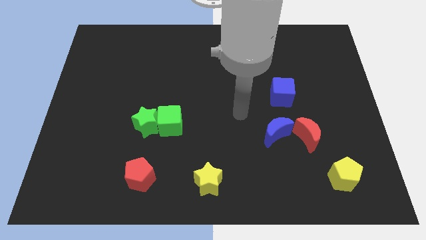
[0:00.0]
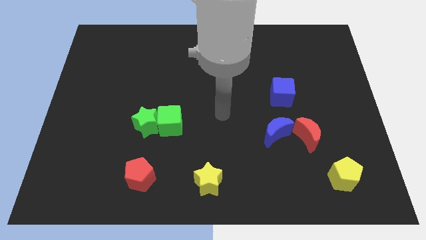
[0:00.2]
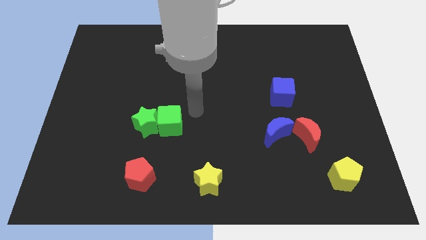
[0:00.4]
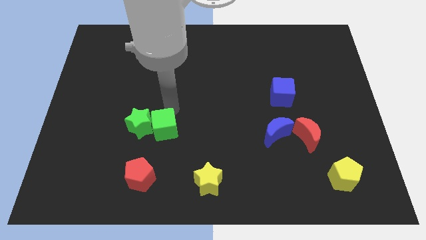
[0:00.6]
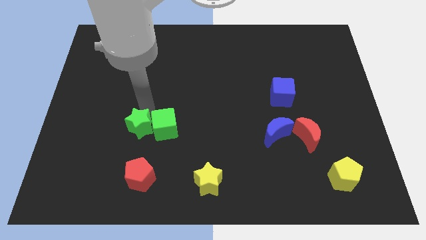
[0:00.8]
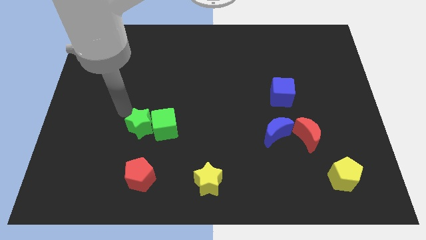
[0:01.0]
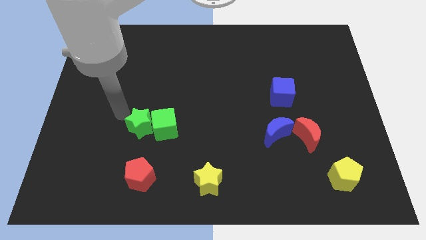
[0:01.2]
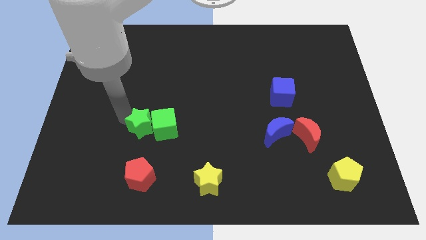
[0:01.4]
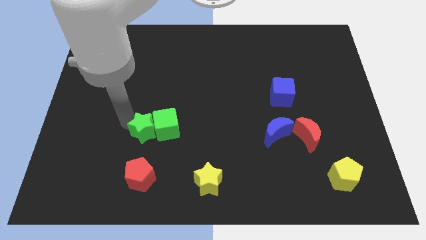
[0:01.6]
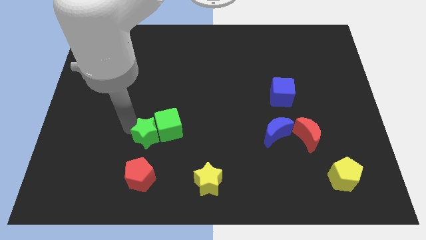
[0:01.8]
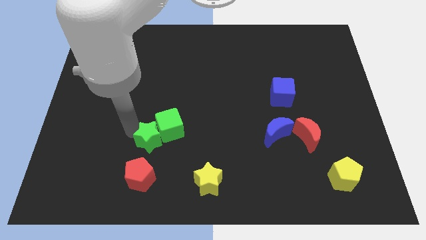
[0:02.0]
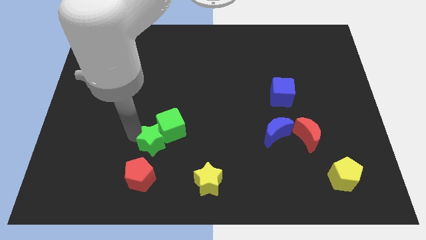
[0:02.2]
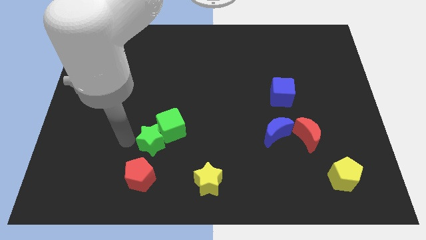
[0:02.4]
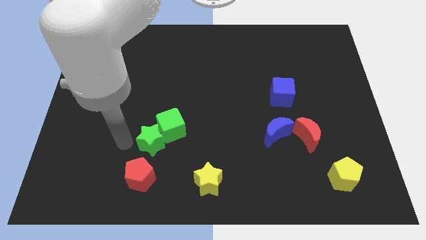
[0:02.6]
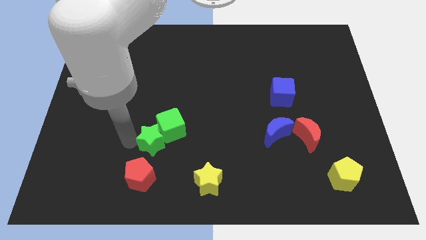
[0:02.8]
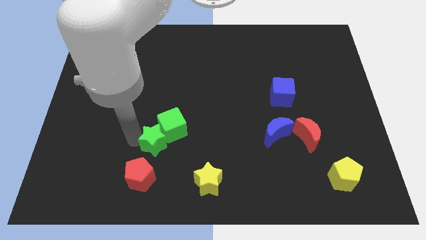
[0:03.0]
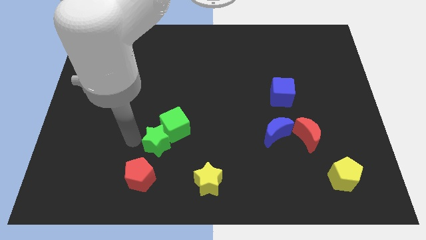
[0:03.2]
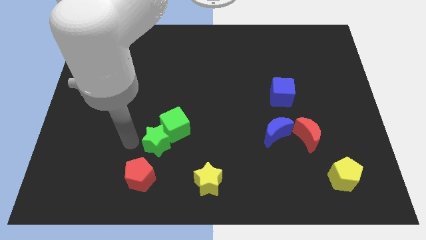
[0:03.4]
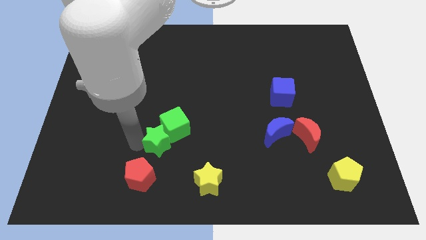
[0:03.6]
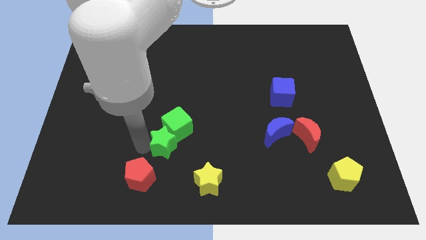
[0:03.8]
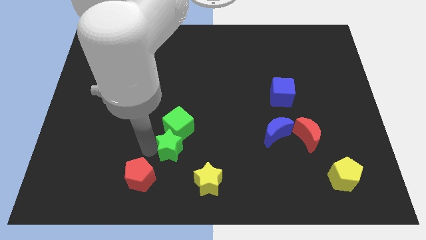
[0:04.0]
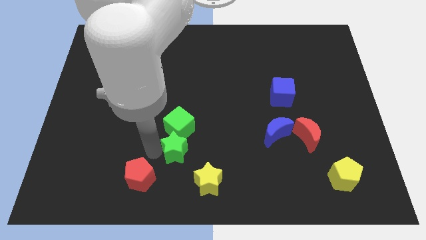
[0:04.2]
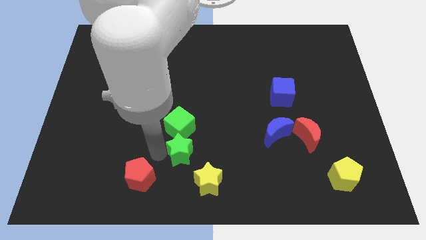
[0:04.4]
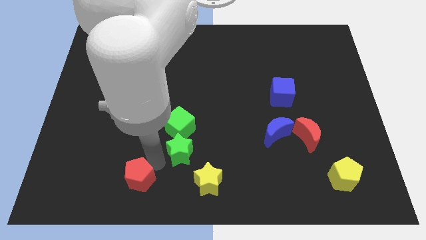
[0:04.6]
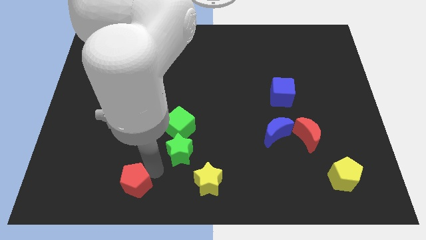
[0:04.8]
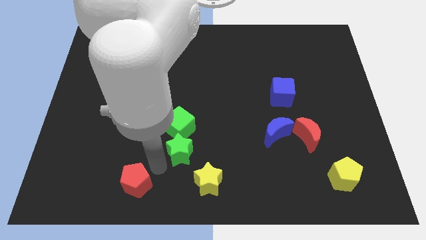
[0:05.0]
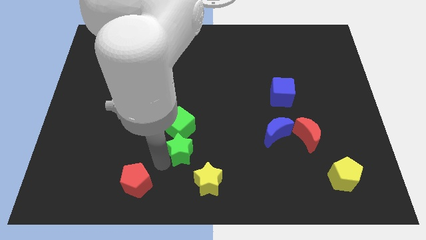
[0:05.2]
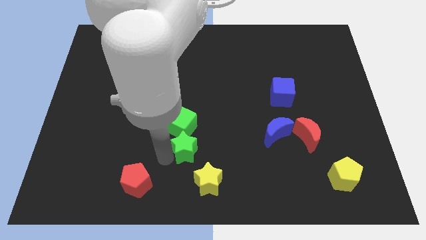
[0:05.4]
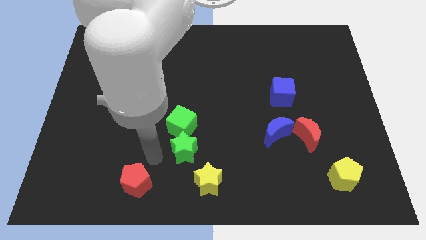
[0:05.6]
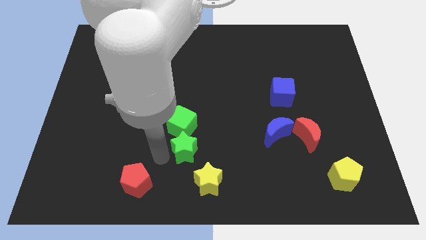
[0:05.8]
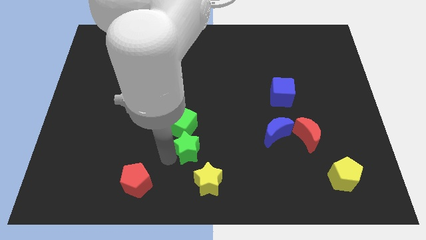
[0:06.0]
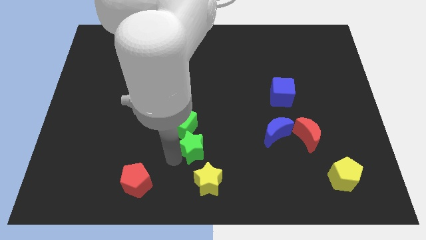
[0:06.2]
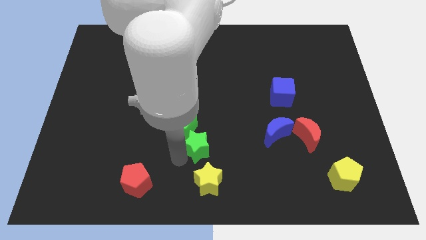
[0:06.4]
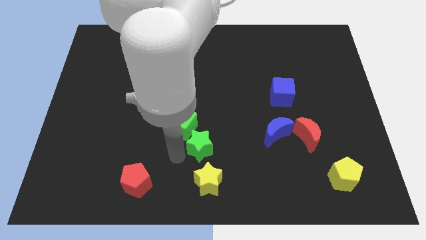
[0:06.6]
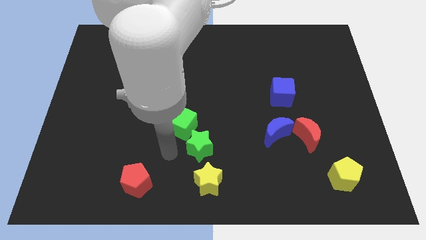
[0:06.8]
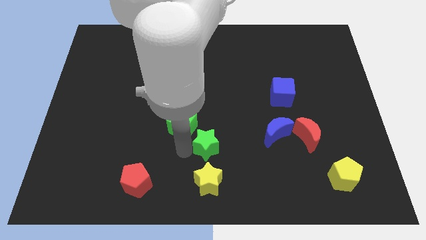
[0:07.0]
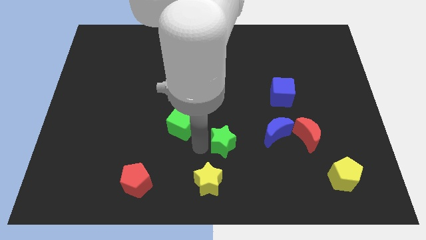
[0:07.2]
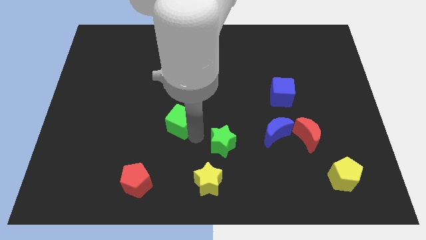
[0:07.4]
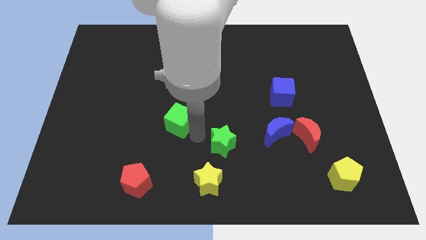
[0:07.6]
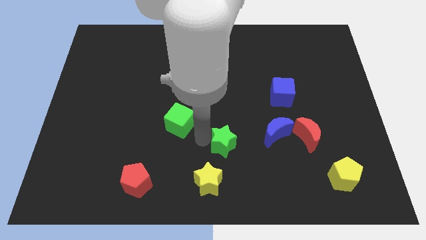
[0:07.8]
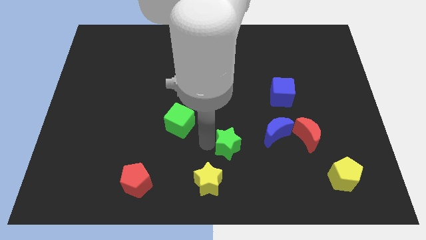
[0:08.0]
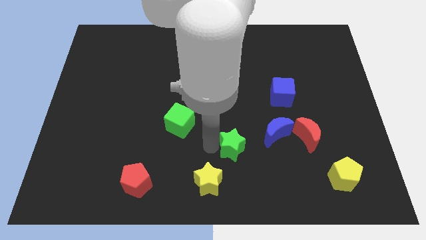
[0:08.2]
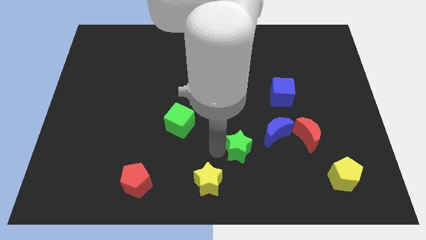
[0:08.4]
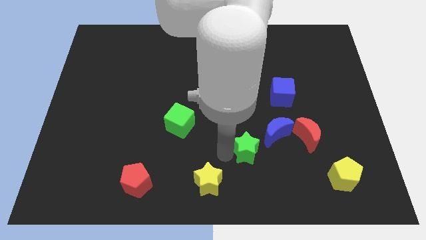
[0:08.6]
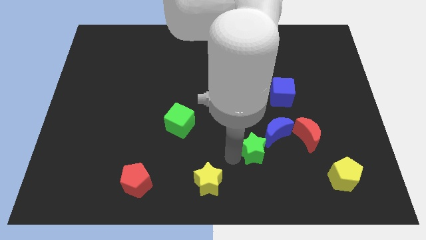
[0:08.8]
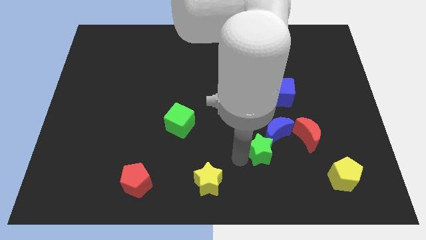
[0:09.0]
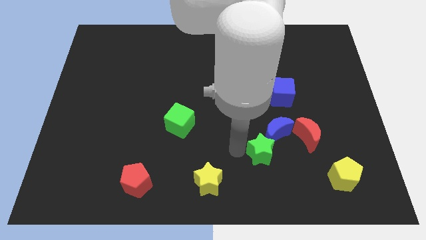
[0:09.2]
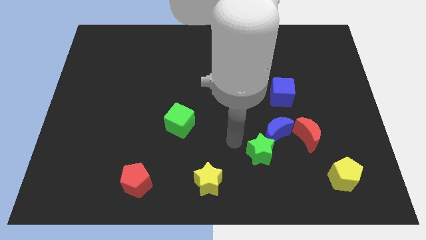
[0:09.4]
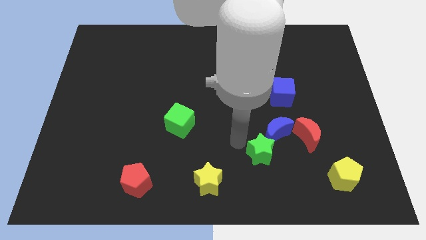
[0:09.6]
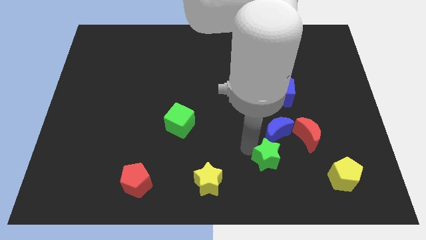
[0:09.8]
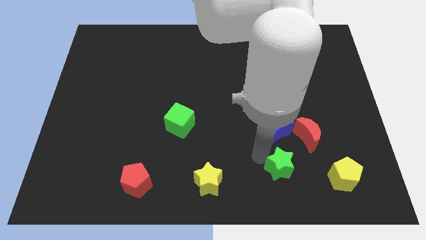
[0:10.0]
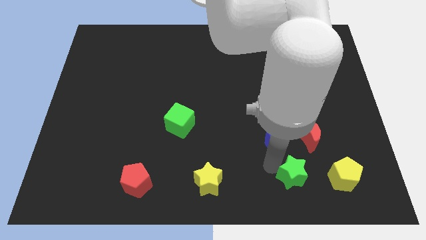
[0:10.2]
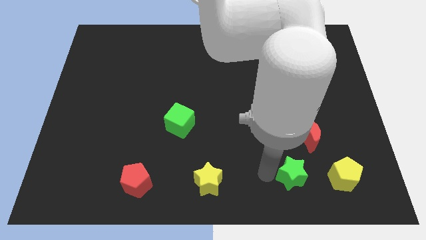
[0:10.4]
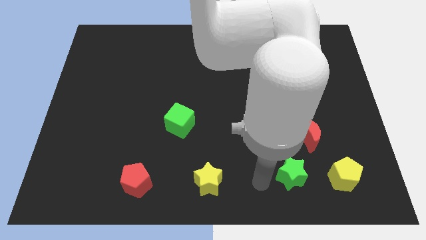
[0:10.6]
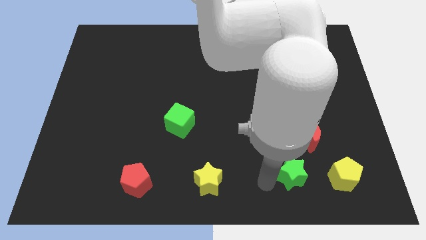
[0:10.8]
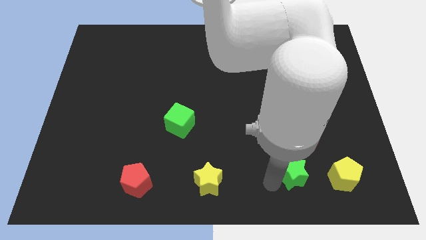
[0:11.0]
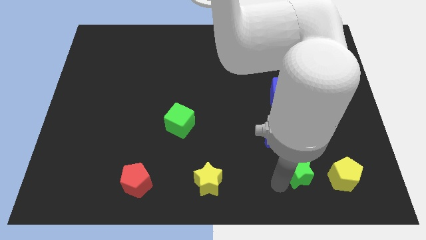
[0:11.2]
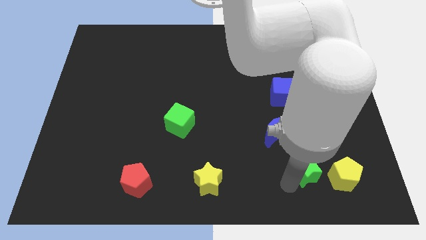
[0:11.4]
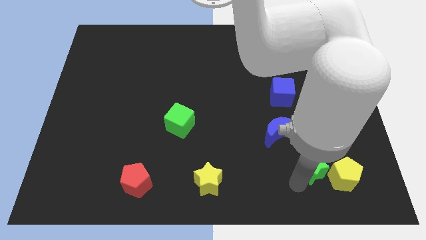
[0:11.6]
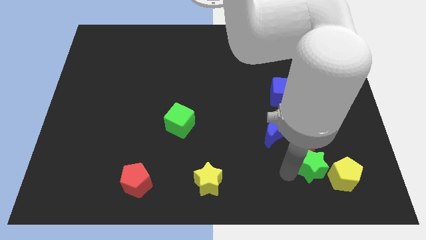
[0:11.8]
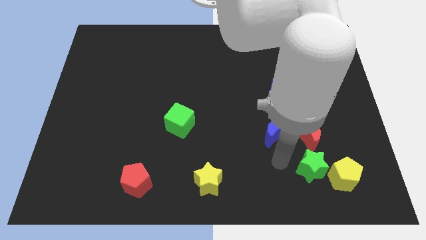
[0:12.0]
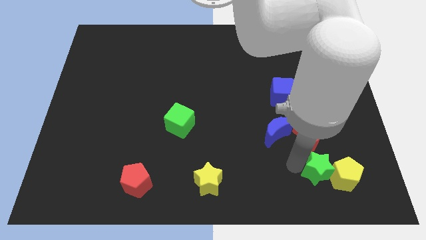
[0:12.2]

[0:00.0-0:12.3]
move the green star towards the yellow pentagon
